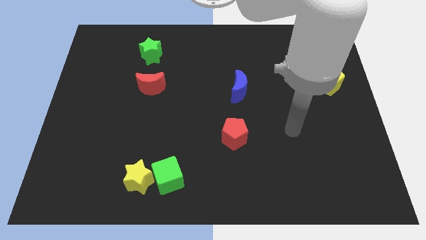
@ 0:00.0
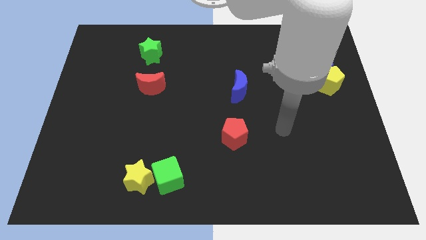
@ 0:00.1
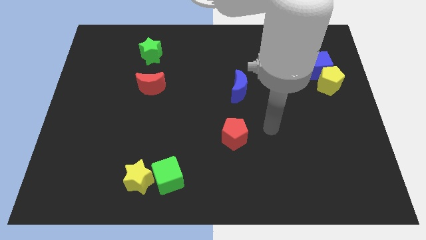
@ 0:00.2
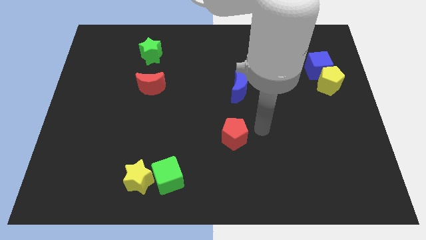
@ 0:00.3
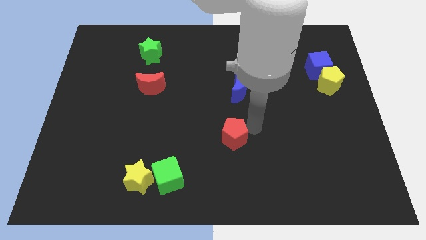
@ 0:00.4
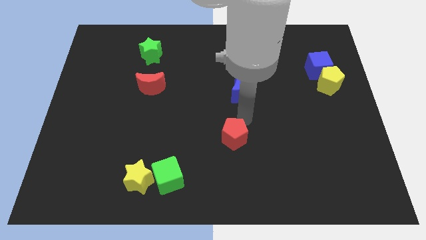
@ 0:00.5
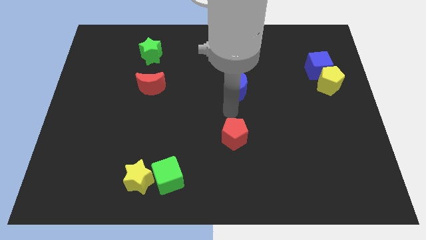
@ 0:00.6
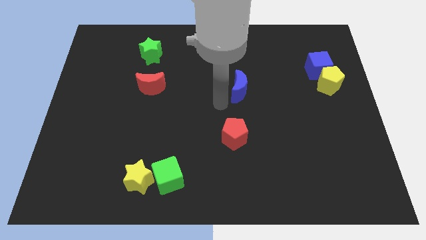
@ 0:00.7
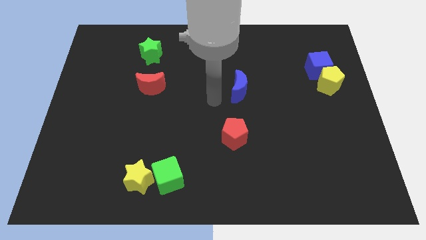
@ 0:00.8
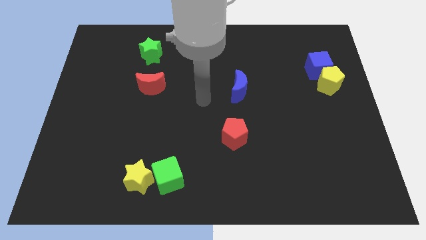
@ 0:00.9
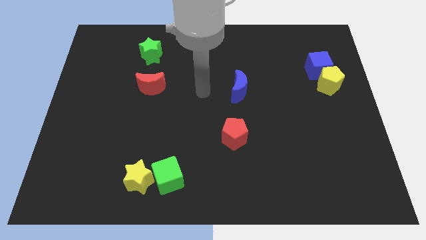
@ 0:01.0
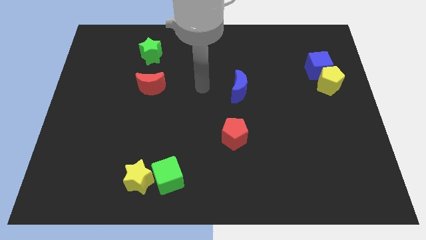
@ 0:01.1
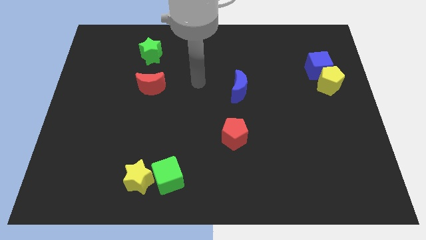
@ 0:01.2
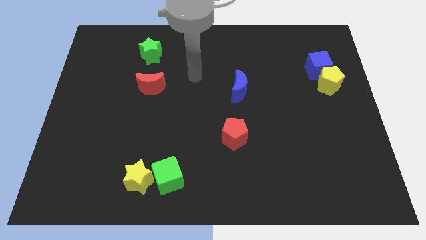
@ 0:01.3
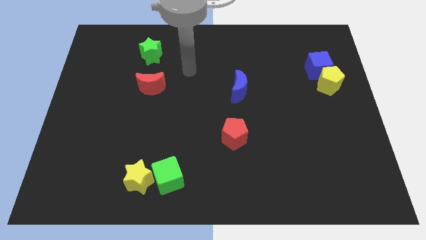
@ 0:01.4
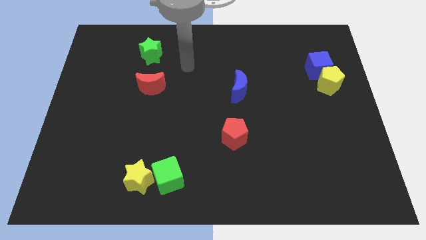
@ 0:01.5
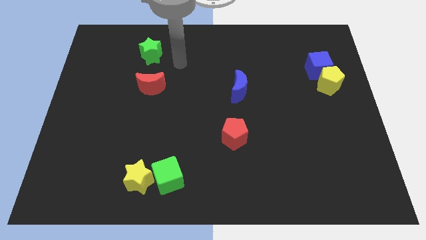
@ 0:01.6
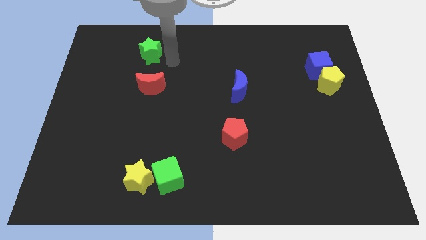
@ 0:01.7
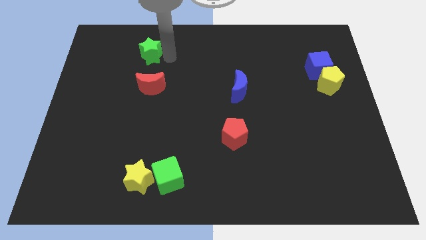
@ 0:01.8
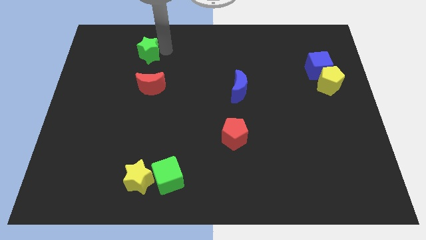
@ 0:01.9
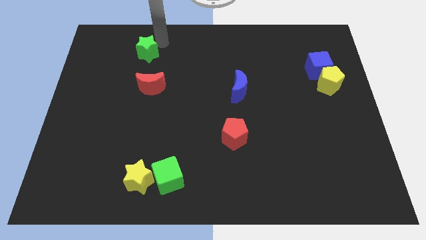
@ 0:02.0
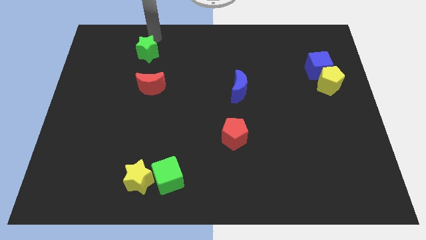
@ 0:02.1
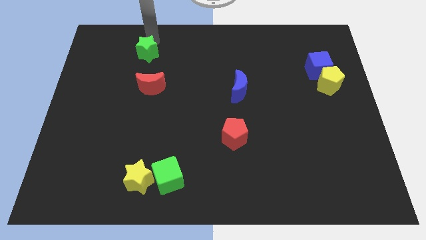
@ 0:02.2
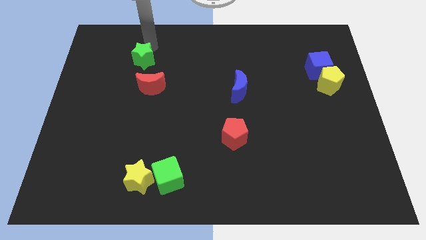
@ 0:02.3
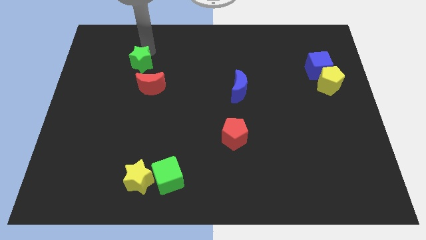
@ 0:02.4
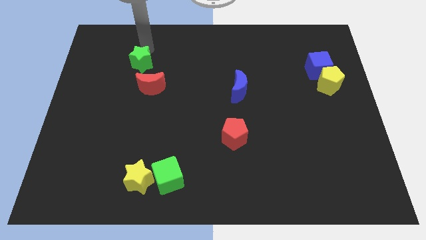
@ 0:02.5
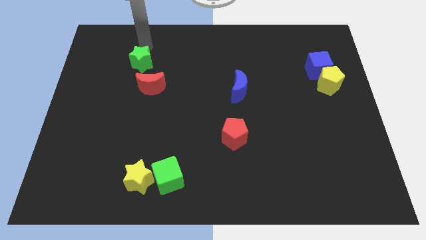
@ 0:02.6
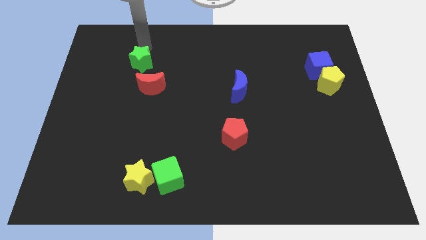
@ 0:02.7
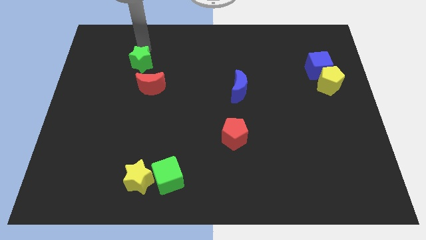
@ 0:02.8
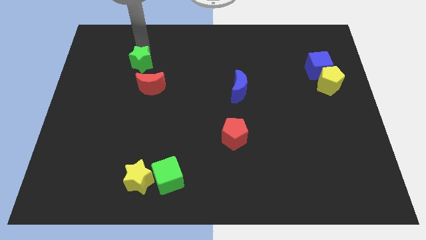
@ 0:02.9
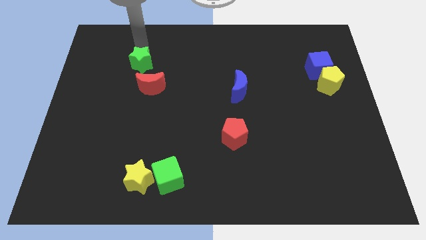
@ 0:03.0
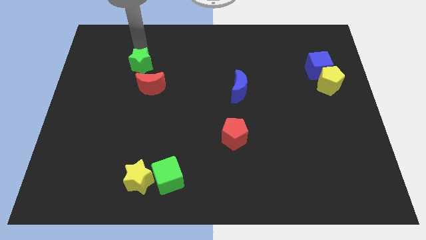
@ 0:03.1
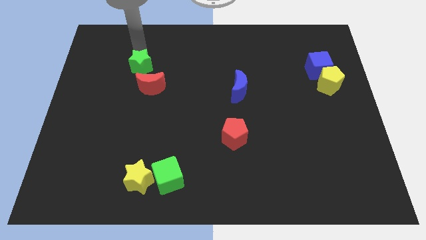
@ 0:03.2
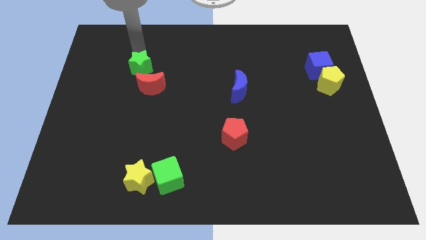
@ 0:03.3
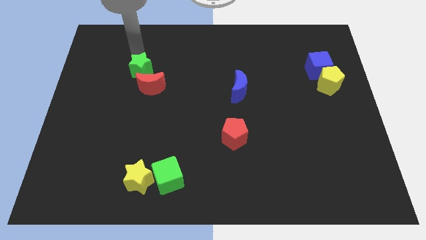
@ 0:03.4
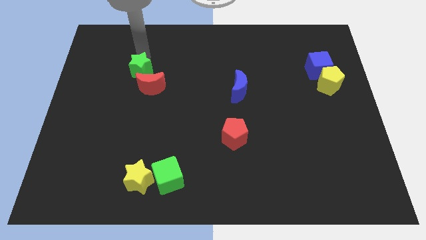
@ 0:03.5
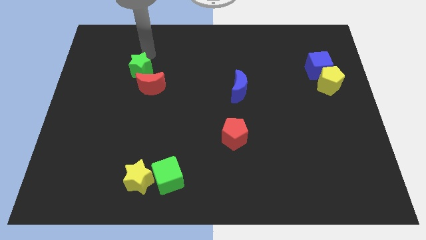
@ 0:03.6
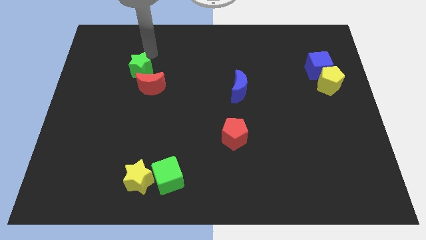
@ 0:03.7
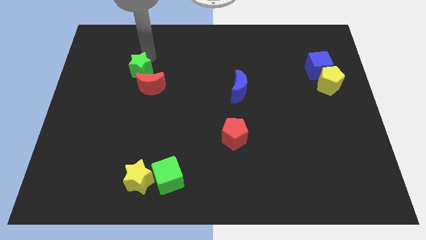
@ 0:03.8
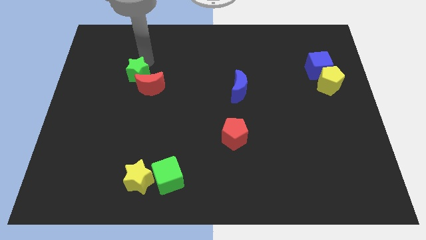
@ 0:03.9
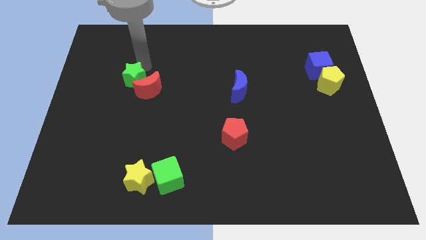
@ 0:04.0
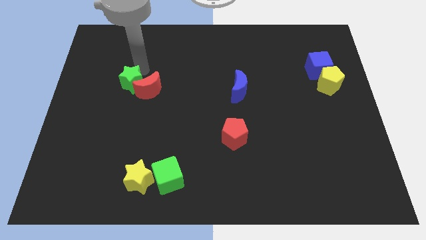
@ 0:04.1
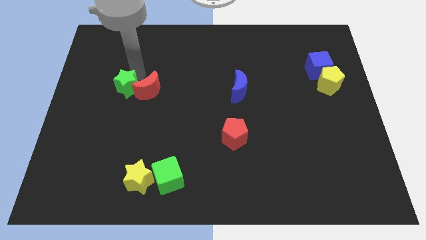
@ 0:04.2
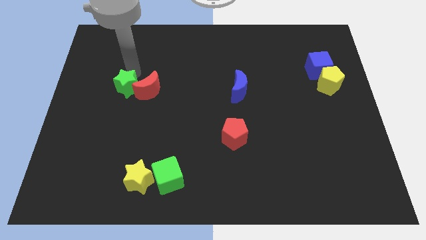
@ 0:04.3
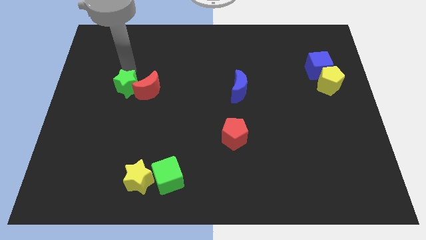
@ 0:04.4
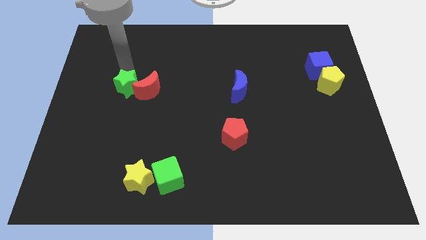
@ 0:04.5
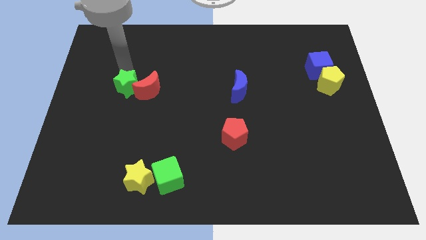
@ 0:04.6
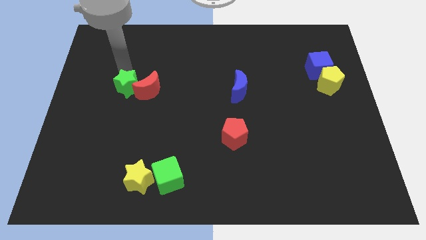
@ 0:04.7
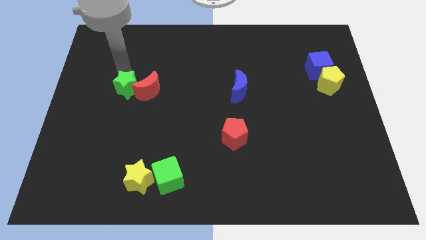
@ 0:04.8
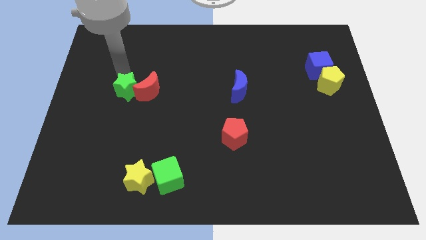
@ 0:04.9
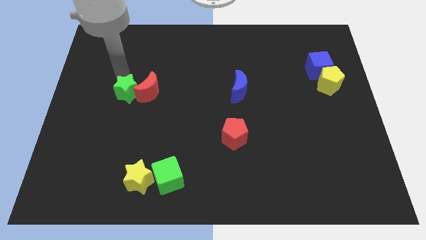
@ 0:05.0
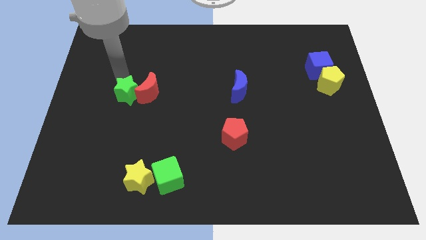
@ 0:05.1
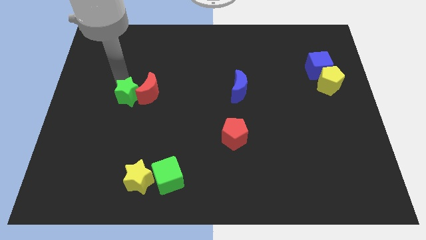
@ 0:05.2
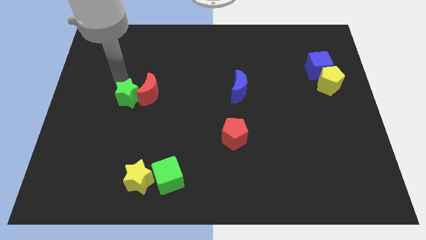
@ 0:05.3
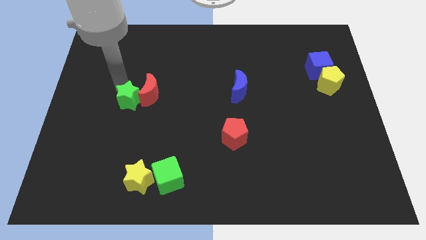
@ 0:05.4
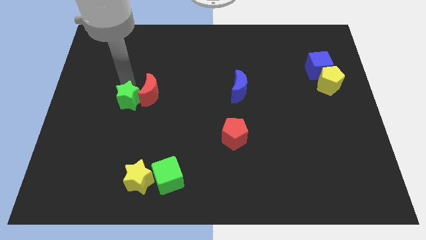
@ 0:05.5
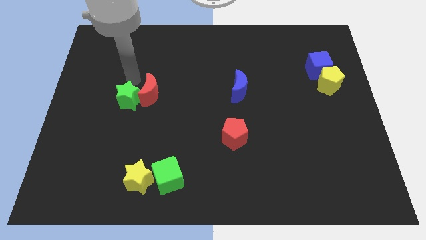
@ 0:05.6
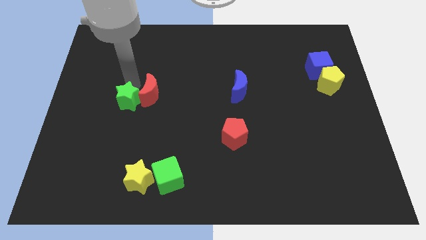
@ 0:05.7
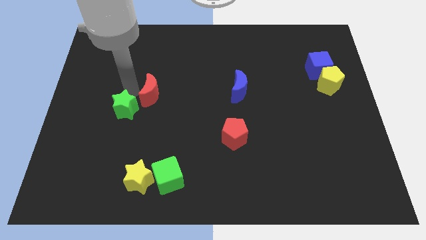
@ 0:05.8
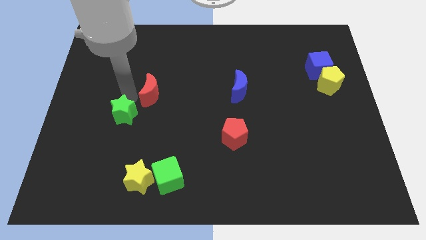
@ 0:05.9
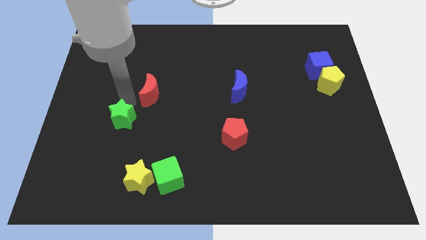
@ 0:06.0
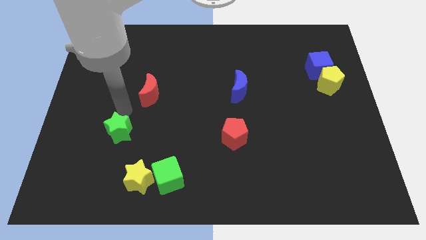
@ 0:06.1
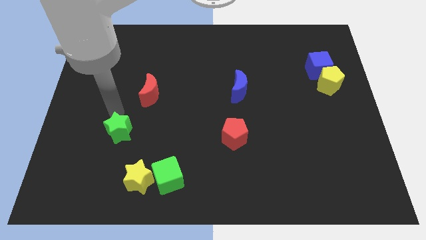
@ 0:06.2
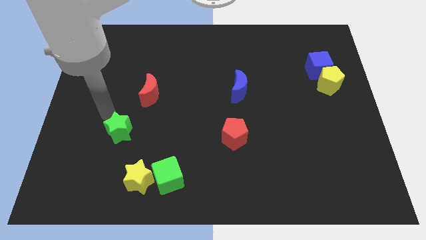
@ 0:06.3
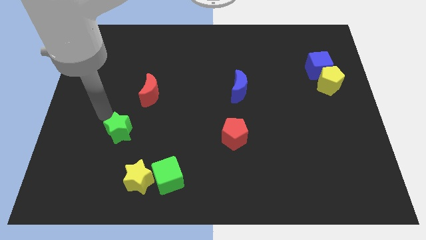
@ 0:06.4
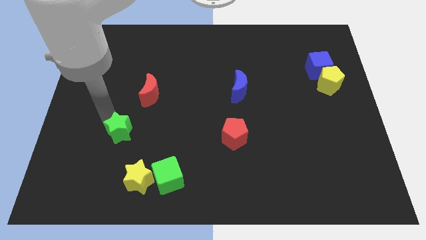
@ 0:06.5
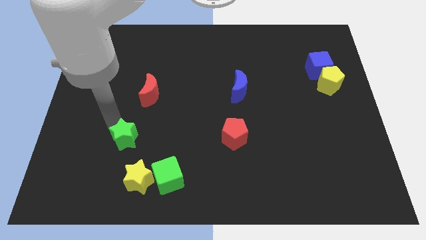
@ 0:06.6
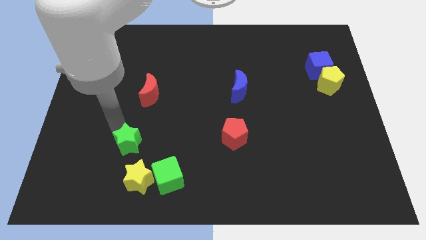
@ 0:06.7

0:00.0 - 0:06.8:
move the green star to the top left of the green cube
